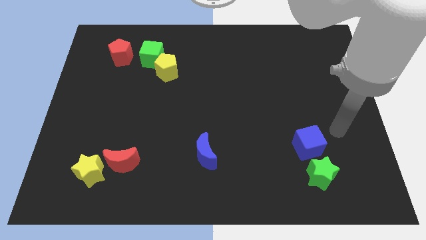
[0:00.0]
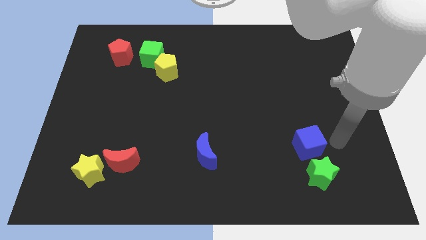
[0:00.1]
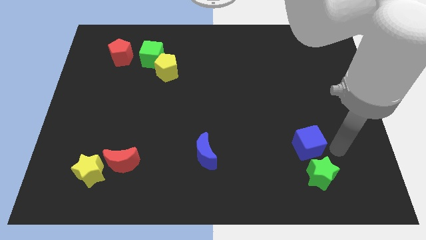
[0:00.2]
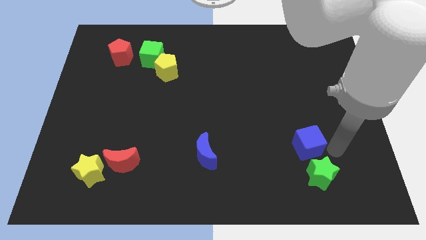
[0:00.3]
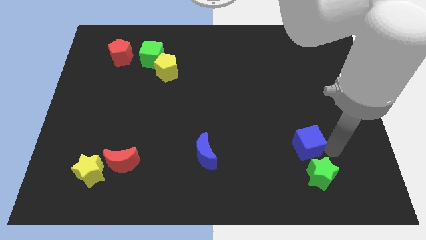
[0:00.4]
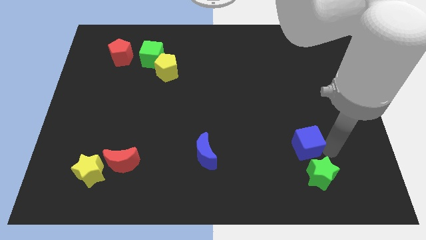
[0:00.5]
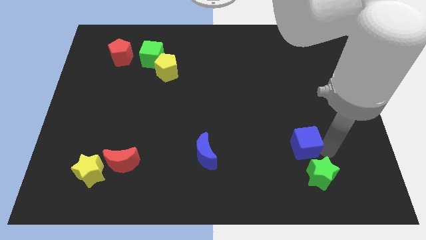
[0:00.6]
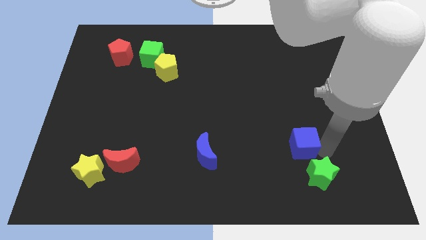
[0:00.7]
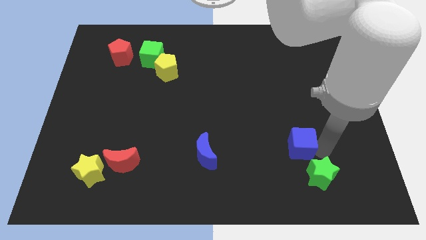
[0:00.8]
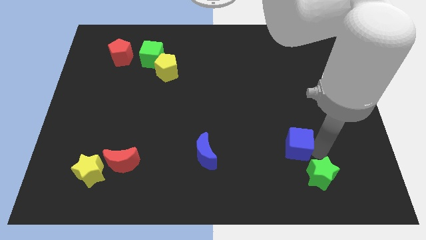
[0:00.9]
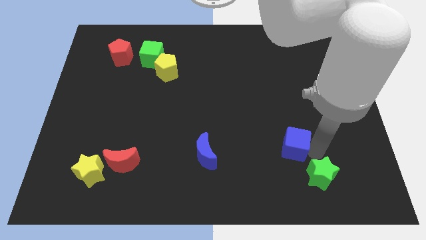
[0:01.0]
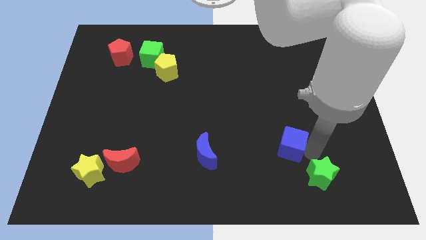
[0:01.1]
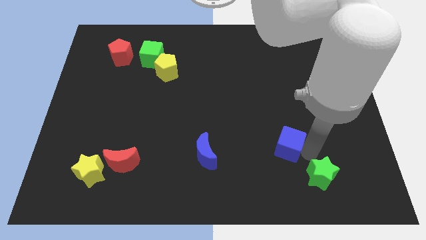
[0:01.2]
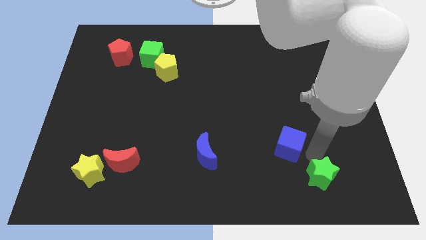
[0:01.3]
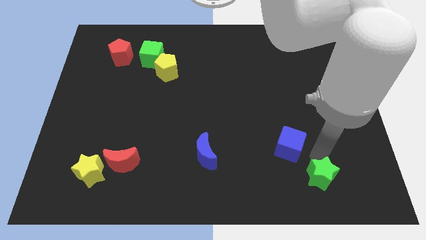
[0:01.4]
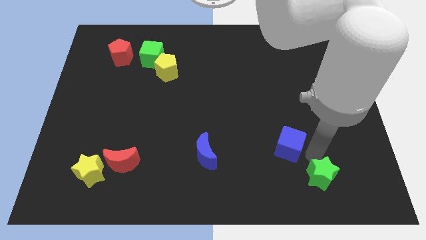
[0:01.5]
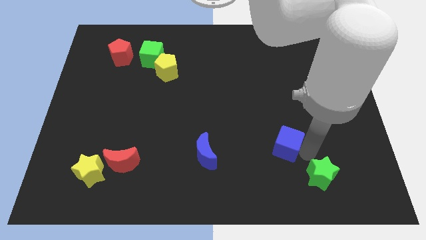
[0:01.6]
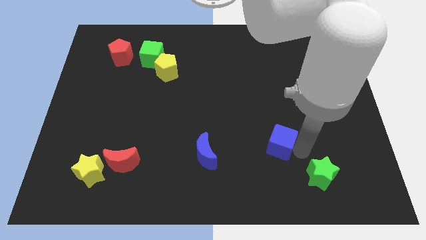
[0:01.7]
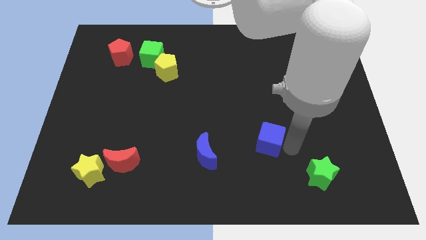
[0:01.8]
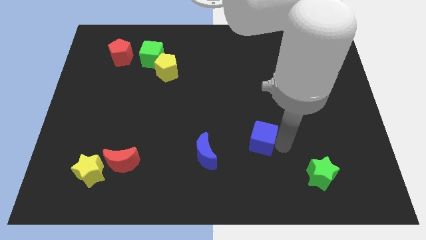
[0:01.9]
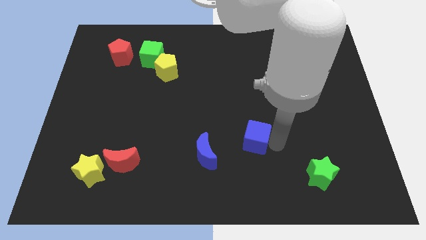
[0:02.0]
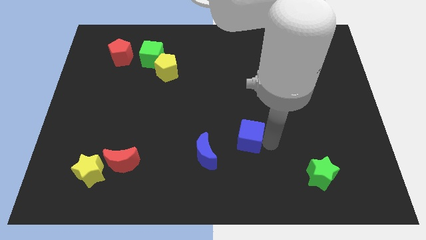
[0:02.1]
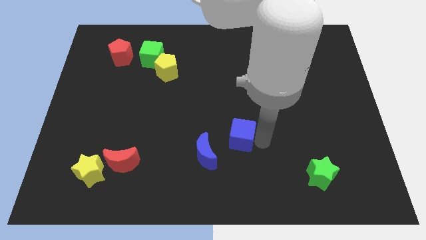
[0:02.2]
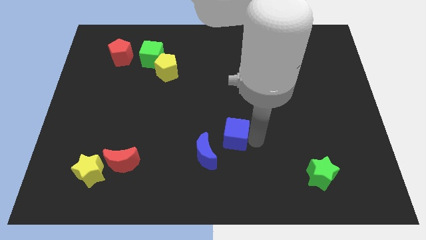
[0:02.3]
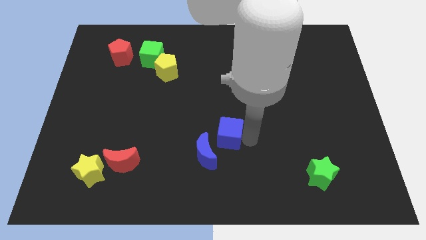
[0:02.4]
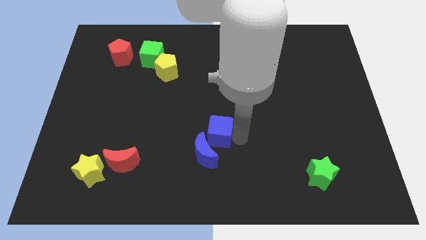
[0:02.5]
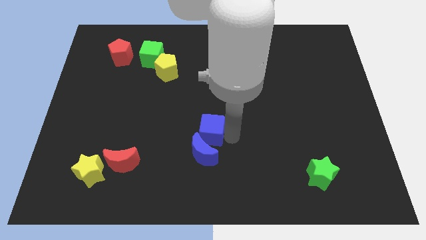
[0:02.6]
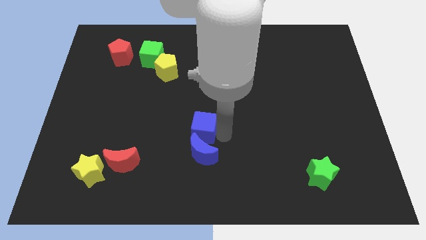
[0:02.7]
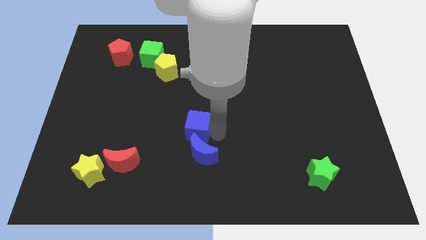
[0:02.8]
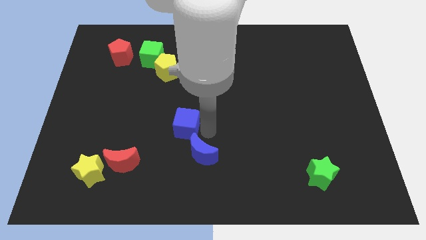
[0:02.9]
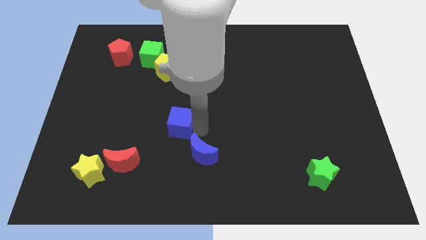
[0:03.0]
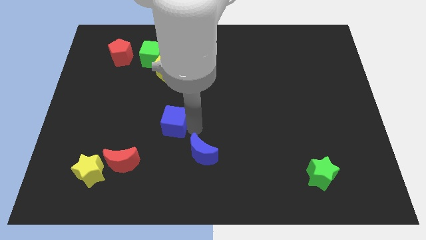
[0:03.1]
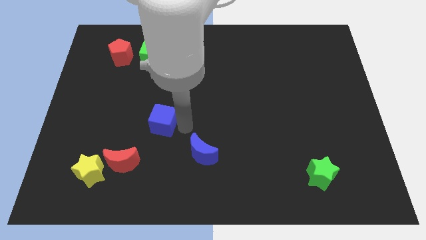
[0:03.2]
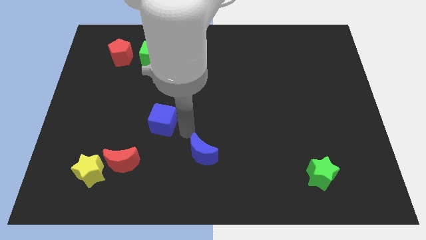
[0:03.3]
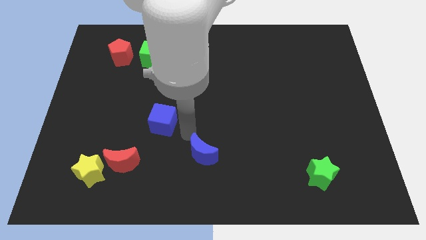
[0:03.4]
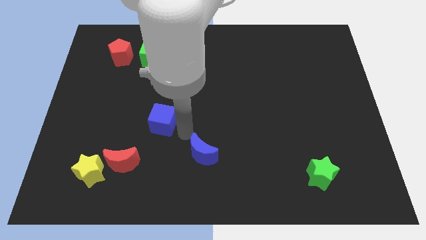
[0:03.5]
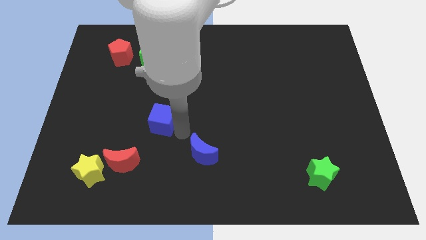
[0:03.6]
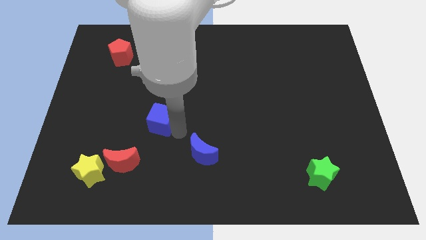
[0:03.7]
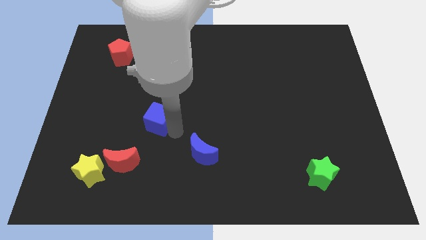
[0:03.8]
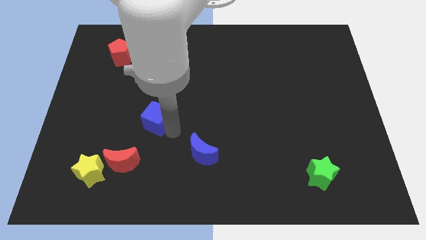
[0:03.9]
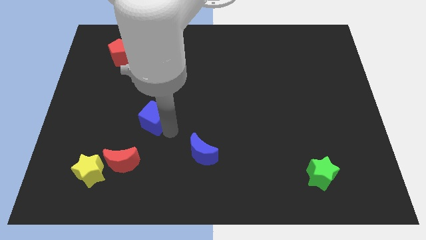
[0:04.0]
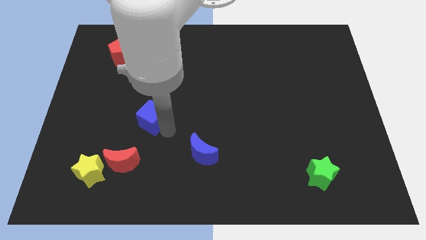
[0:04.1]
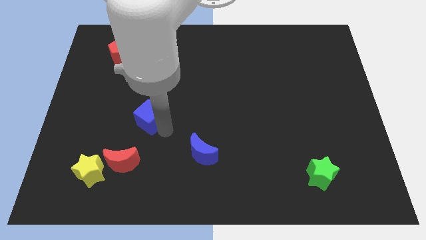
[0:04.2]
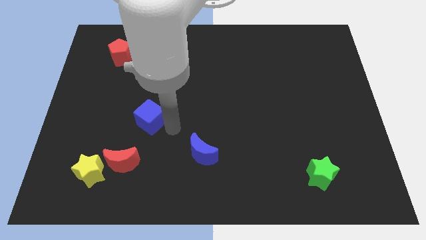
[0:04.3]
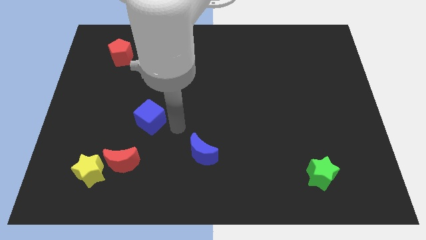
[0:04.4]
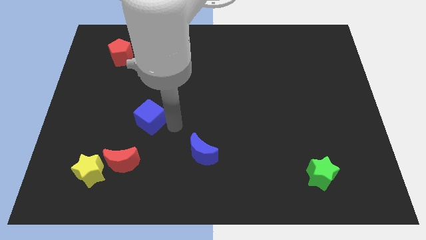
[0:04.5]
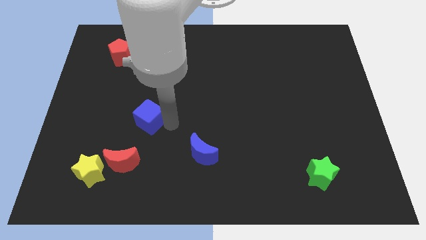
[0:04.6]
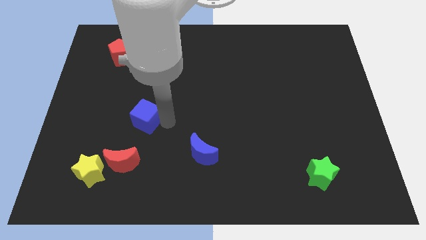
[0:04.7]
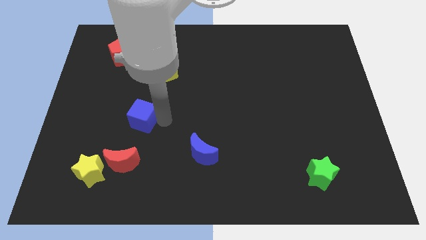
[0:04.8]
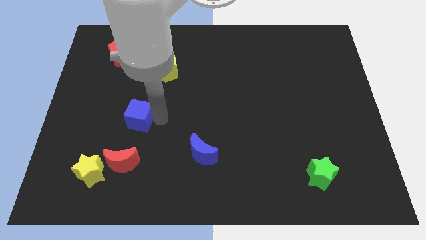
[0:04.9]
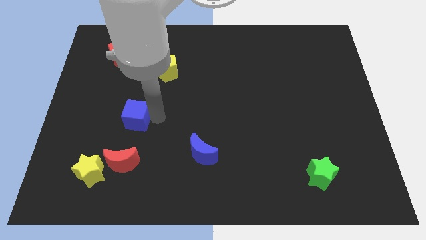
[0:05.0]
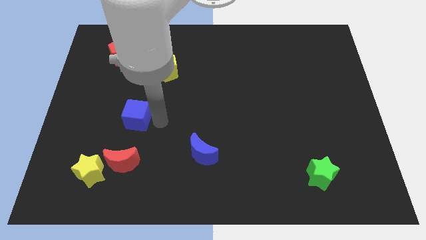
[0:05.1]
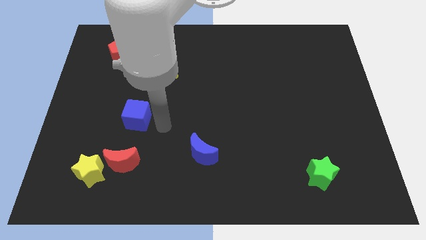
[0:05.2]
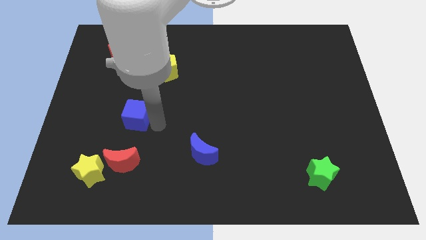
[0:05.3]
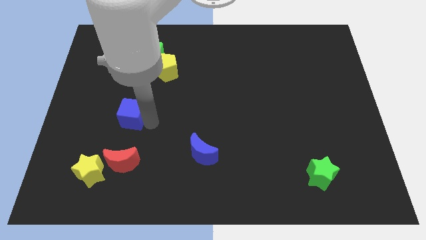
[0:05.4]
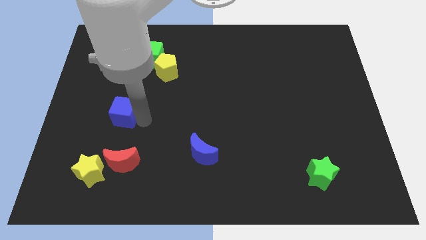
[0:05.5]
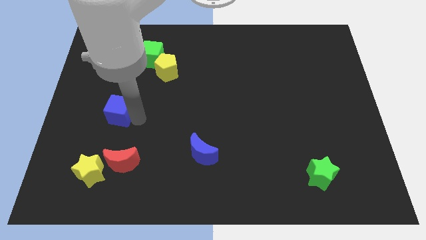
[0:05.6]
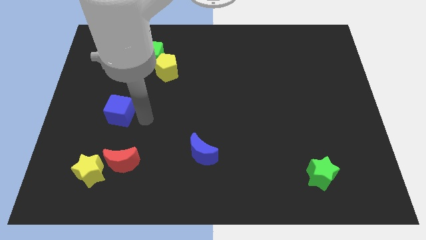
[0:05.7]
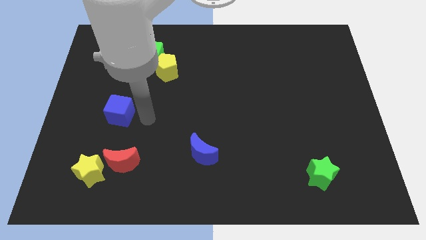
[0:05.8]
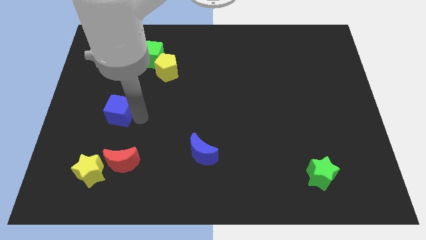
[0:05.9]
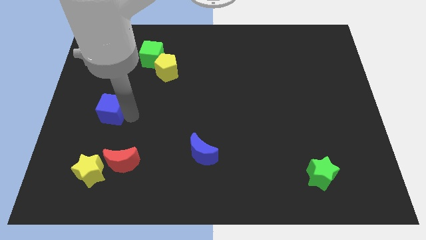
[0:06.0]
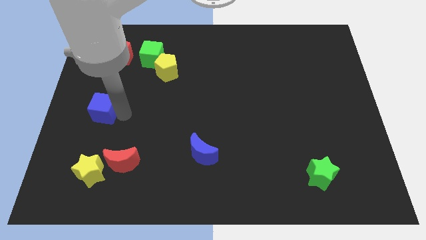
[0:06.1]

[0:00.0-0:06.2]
slide the blue cube to the left side of the board
